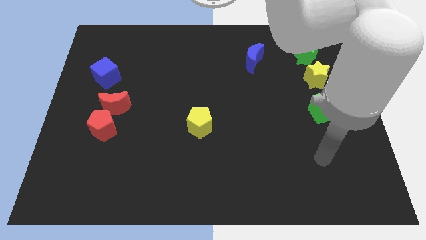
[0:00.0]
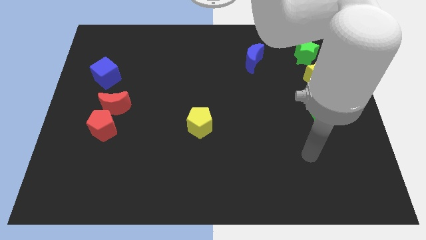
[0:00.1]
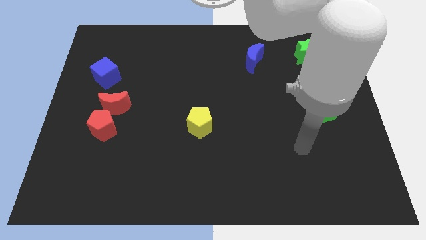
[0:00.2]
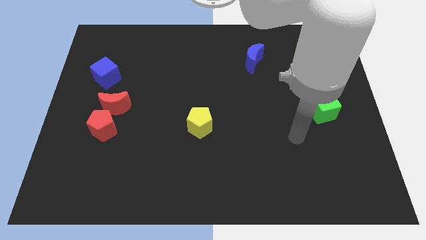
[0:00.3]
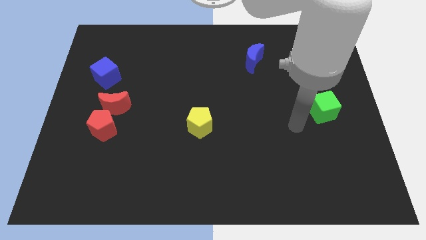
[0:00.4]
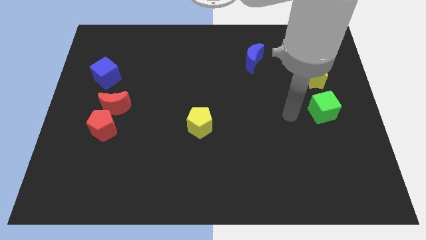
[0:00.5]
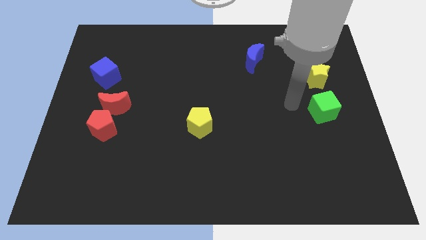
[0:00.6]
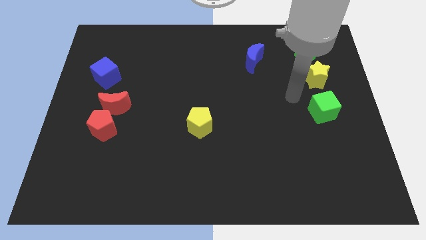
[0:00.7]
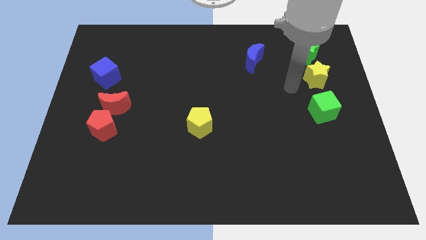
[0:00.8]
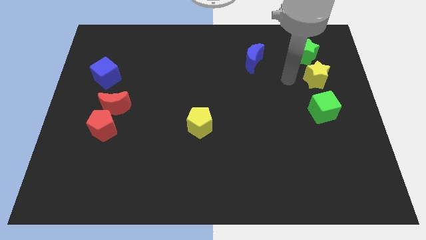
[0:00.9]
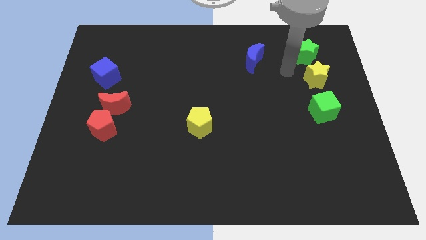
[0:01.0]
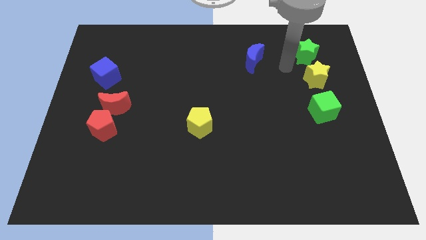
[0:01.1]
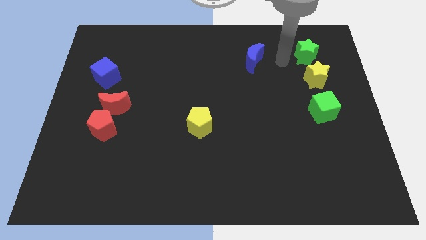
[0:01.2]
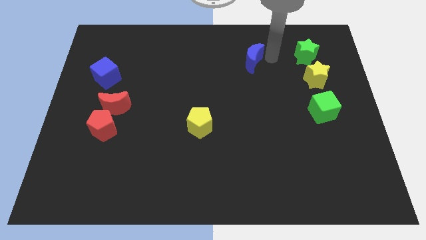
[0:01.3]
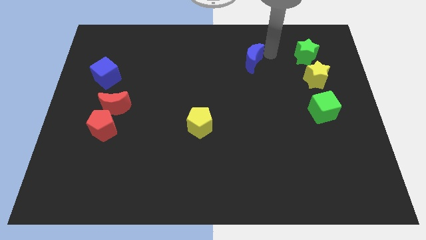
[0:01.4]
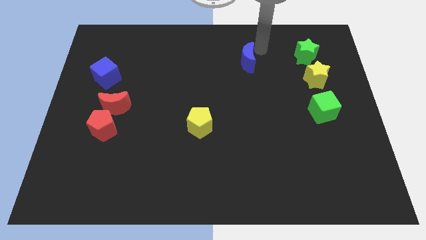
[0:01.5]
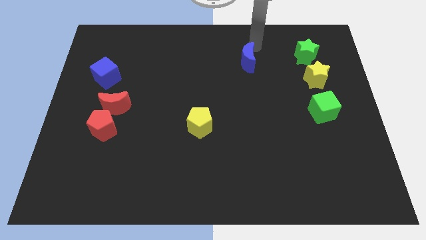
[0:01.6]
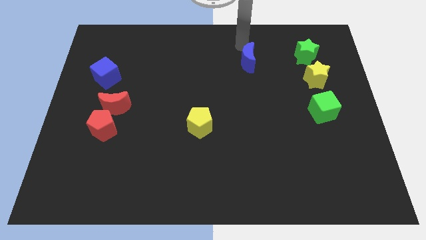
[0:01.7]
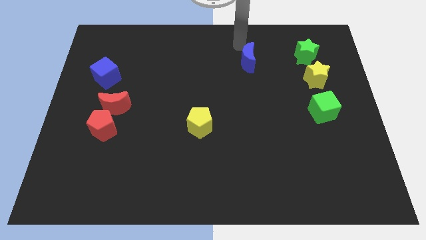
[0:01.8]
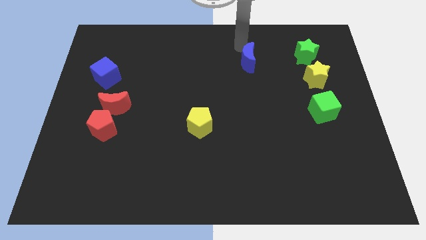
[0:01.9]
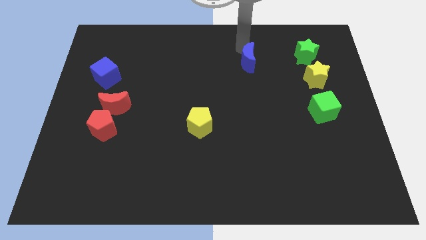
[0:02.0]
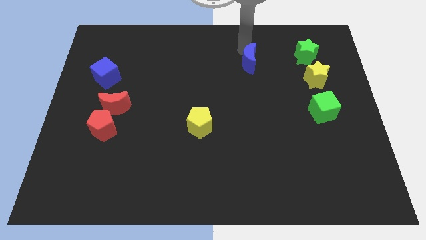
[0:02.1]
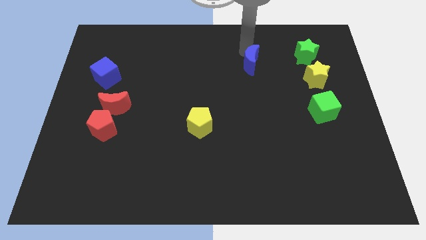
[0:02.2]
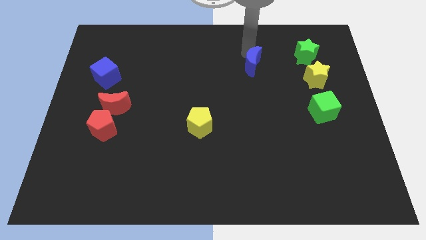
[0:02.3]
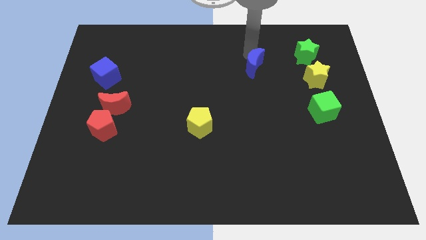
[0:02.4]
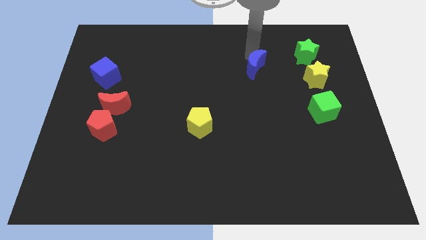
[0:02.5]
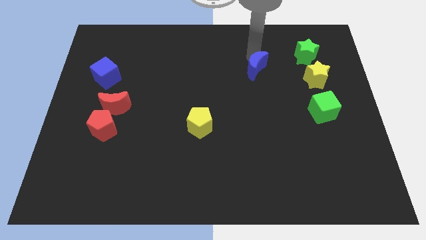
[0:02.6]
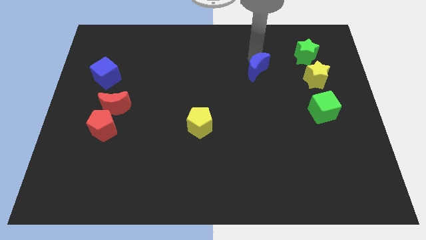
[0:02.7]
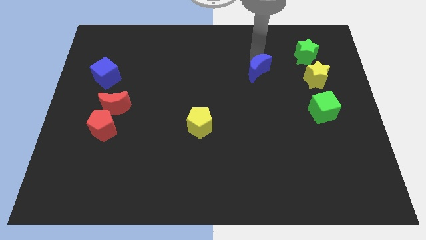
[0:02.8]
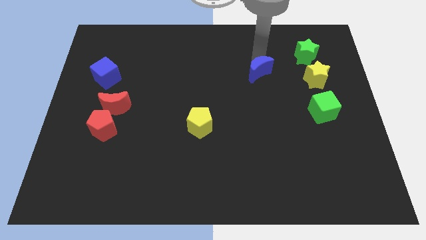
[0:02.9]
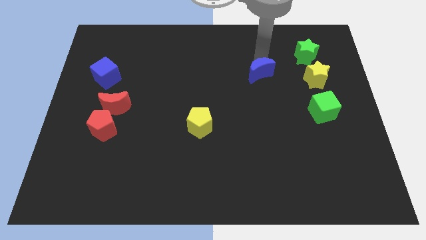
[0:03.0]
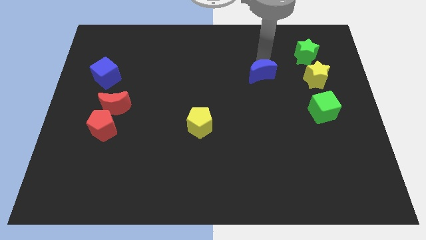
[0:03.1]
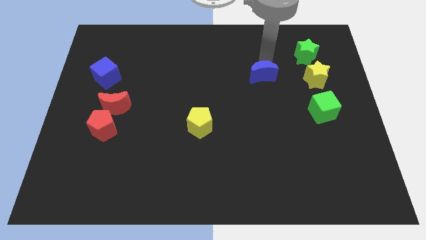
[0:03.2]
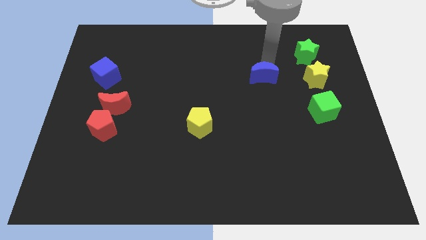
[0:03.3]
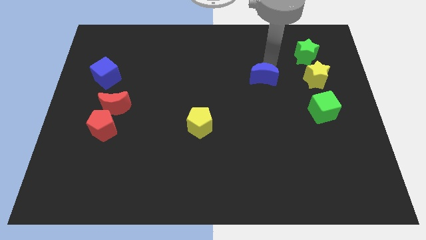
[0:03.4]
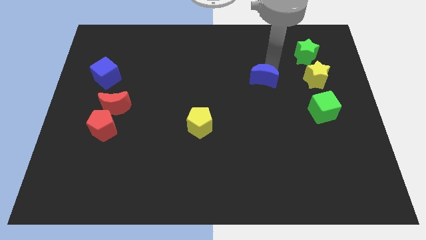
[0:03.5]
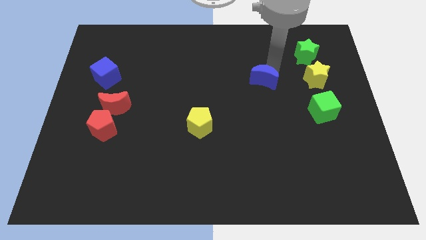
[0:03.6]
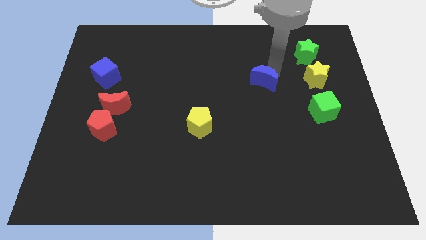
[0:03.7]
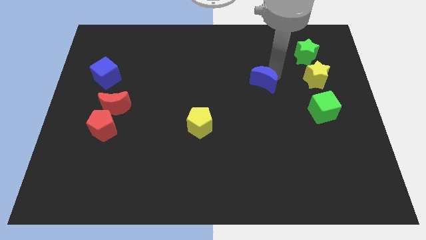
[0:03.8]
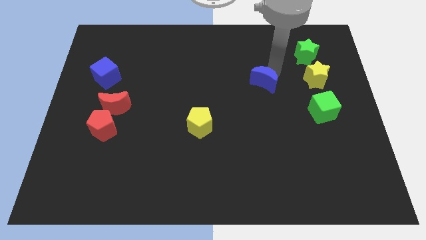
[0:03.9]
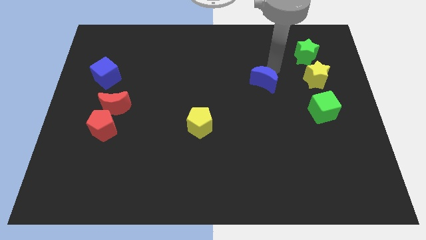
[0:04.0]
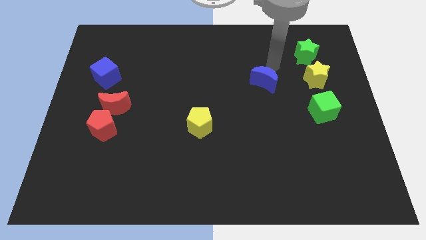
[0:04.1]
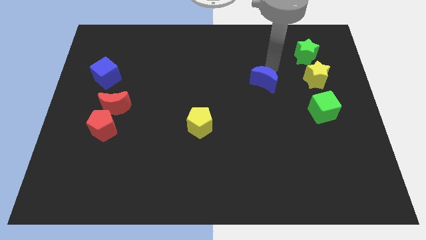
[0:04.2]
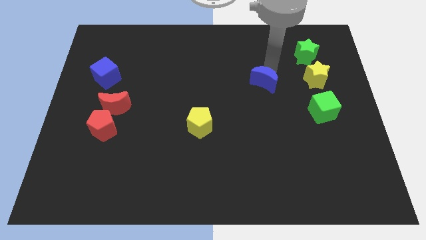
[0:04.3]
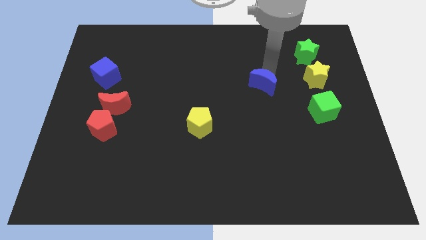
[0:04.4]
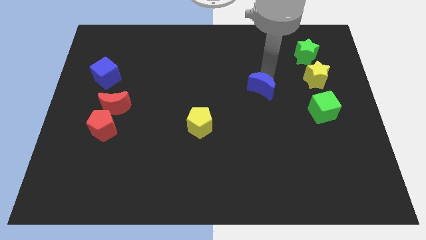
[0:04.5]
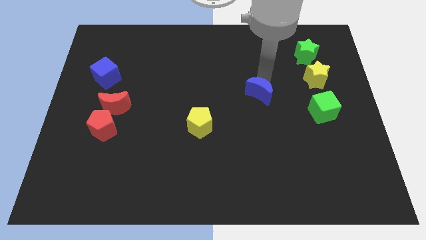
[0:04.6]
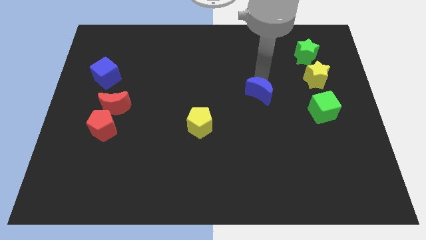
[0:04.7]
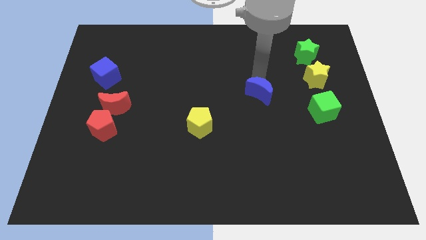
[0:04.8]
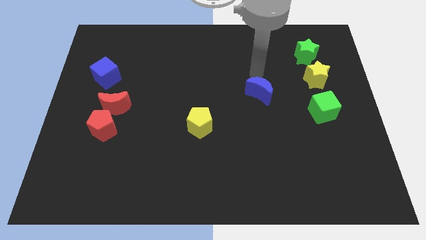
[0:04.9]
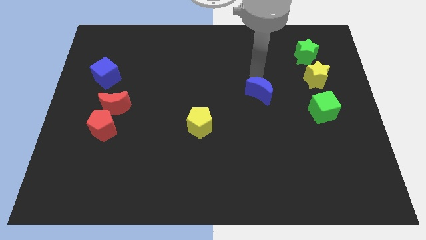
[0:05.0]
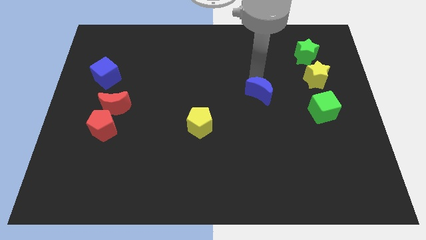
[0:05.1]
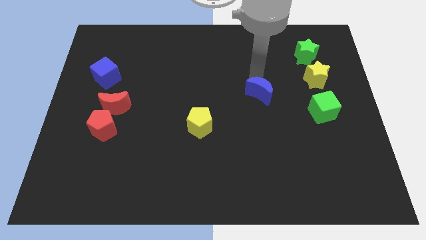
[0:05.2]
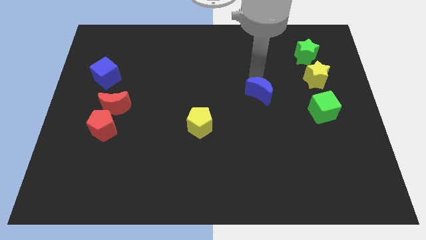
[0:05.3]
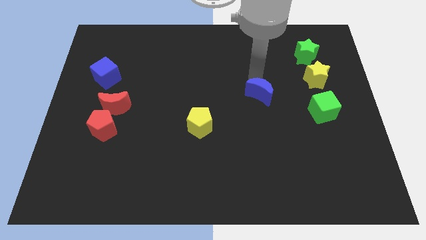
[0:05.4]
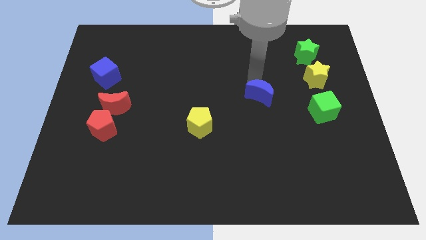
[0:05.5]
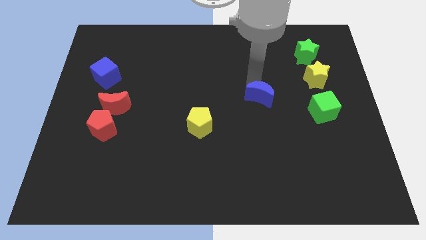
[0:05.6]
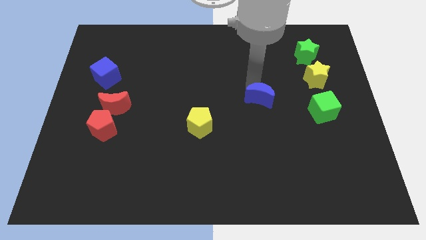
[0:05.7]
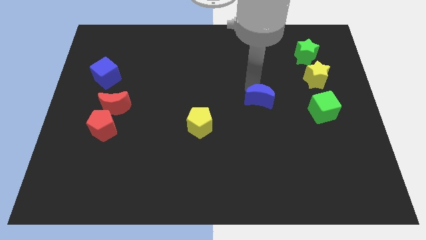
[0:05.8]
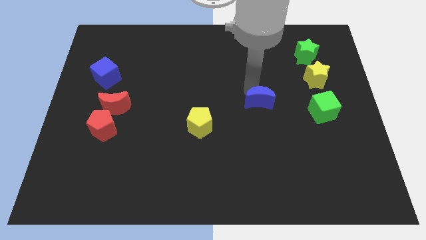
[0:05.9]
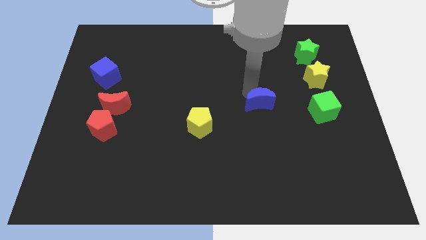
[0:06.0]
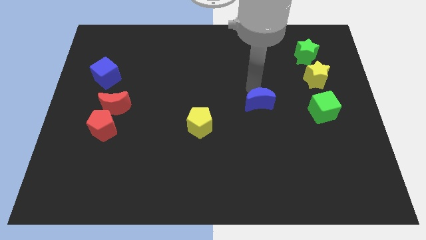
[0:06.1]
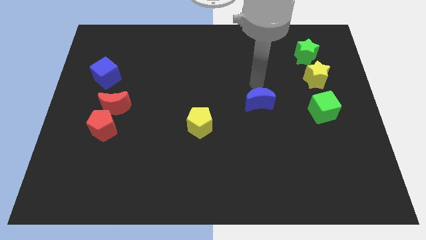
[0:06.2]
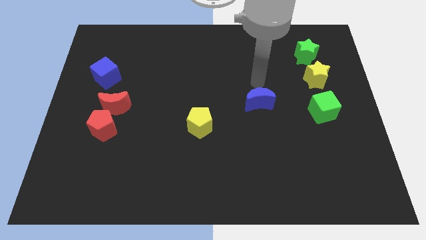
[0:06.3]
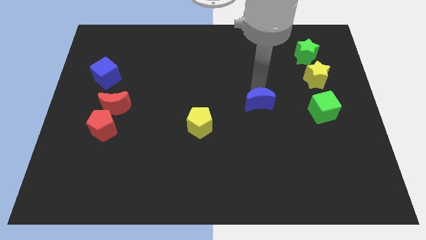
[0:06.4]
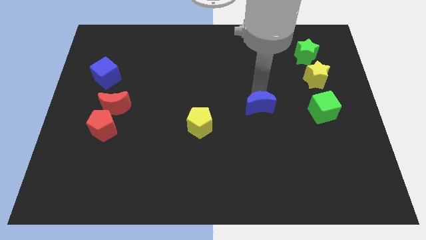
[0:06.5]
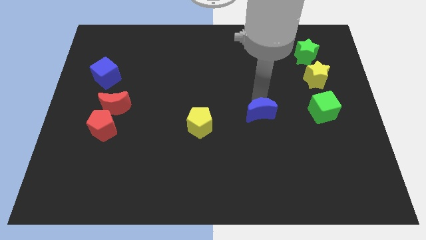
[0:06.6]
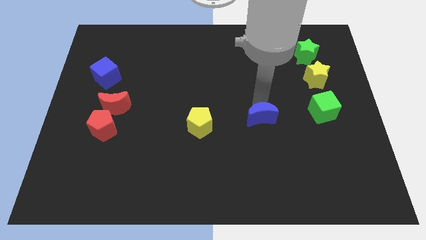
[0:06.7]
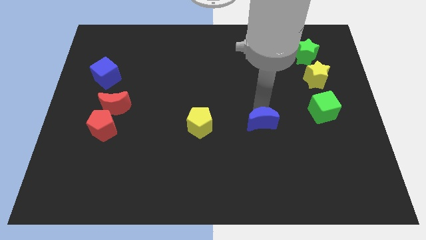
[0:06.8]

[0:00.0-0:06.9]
slide the blue moon down

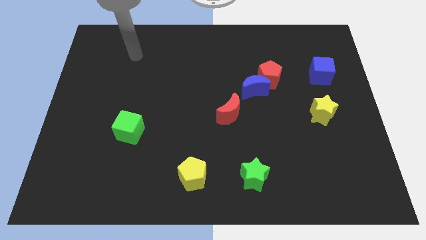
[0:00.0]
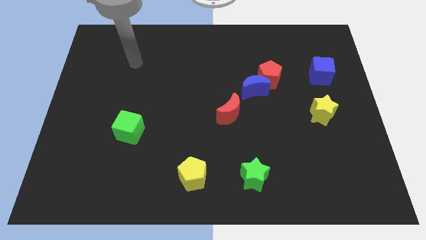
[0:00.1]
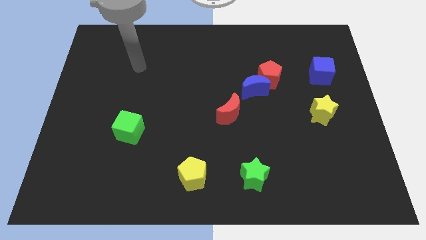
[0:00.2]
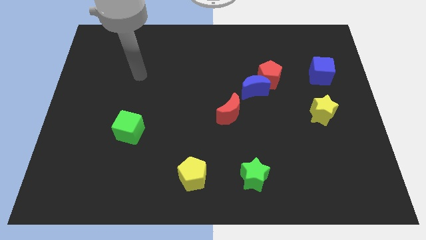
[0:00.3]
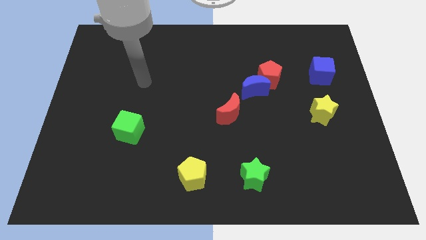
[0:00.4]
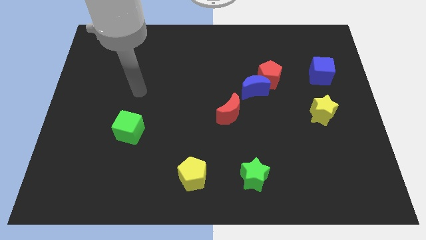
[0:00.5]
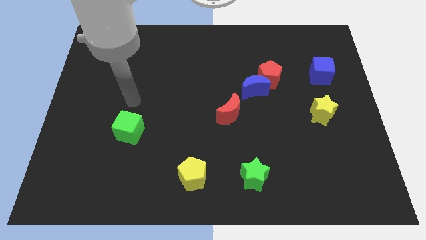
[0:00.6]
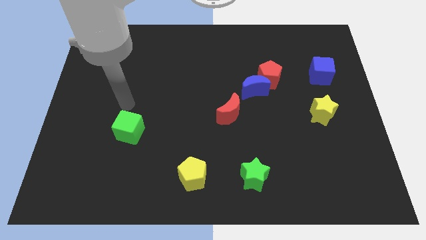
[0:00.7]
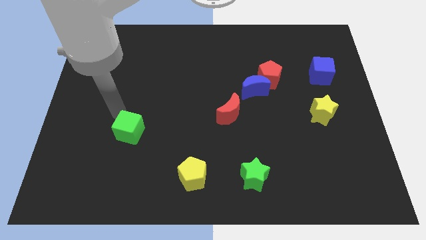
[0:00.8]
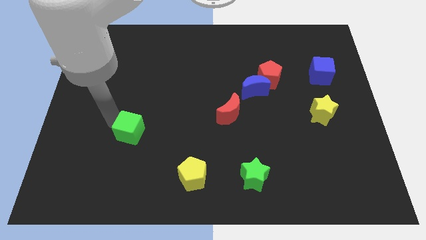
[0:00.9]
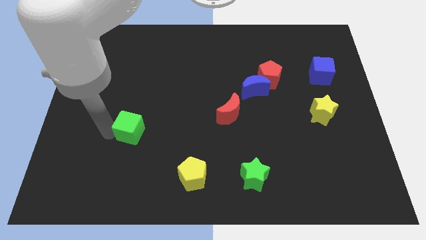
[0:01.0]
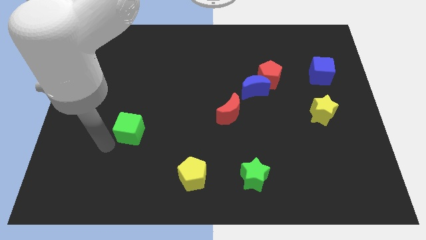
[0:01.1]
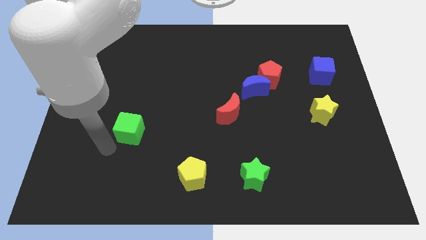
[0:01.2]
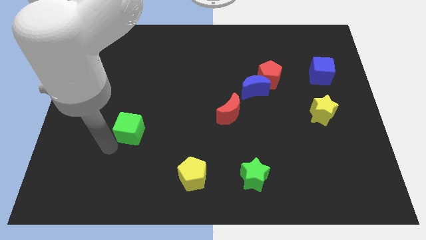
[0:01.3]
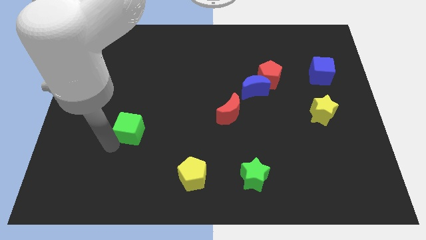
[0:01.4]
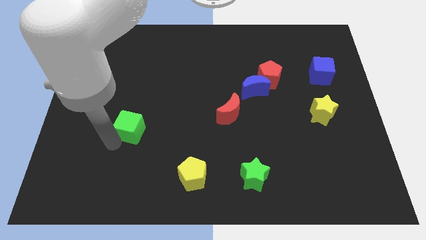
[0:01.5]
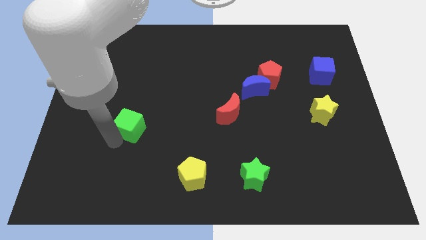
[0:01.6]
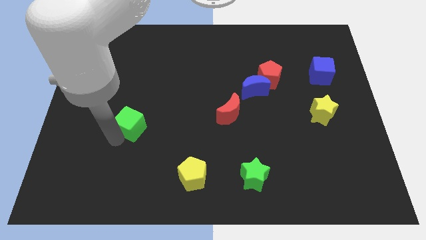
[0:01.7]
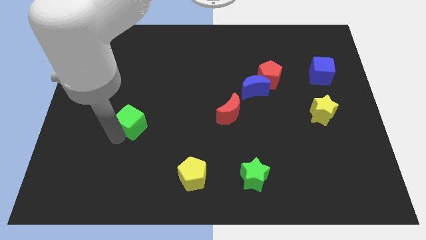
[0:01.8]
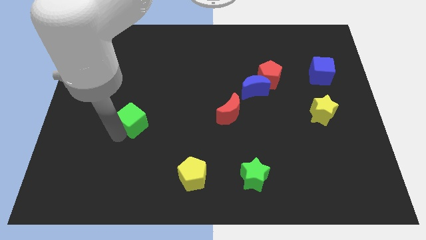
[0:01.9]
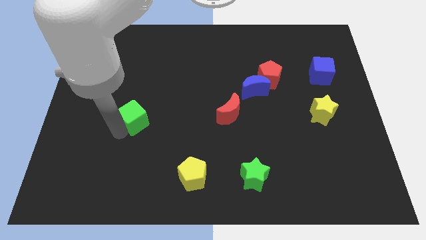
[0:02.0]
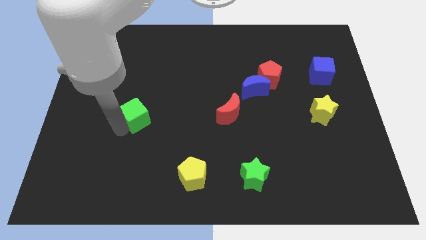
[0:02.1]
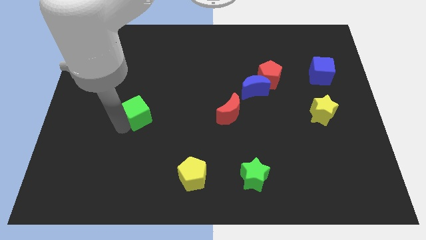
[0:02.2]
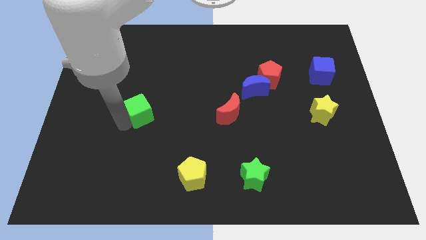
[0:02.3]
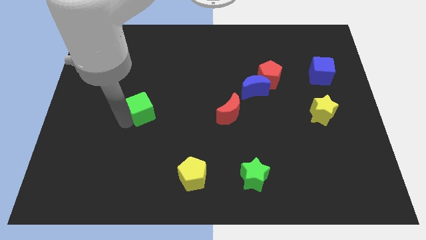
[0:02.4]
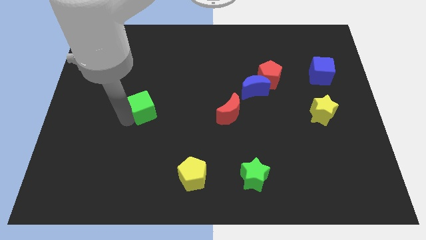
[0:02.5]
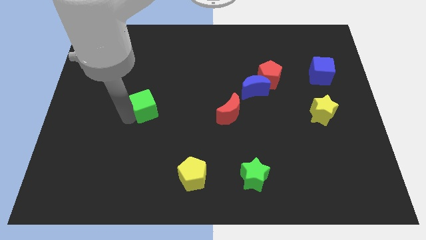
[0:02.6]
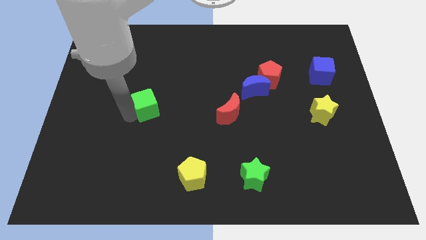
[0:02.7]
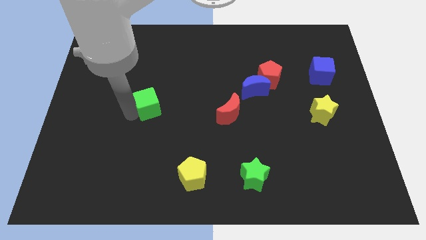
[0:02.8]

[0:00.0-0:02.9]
push the green cube up and right diagonally a bit
